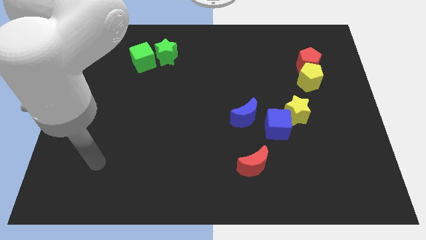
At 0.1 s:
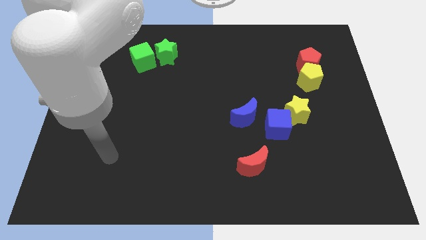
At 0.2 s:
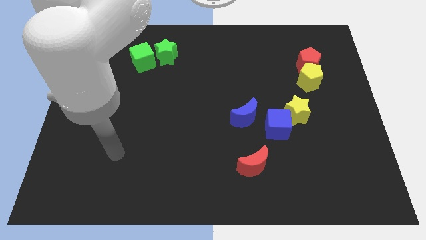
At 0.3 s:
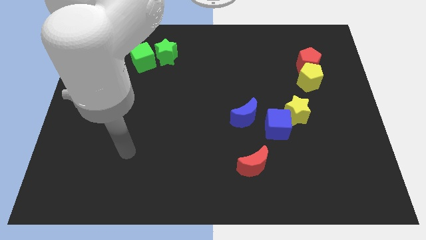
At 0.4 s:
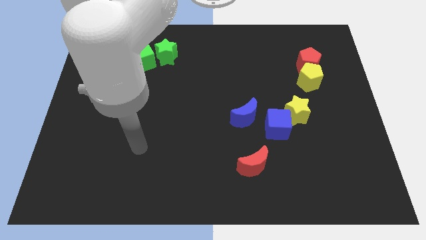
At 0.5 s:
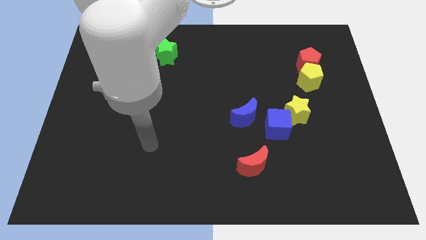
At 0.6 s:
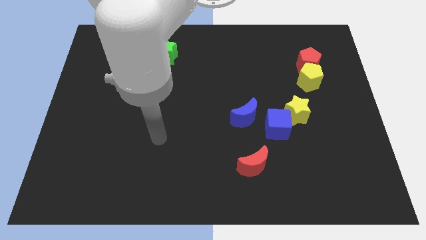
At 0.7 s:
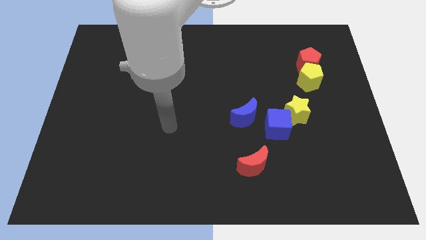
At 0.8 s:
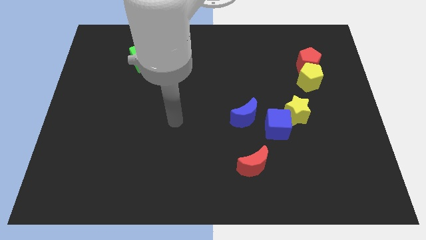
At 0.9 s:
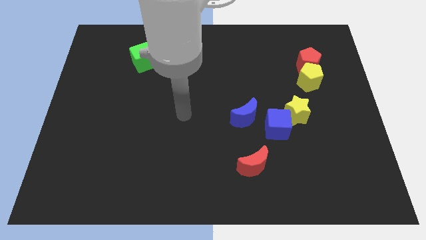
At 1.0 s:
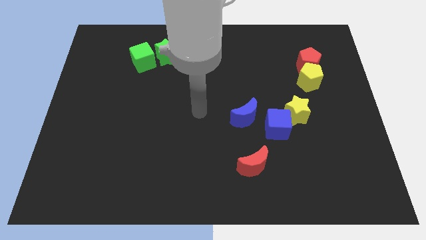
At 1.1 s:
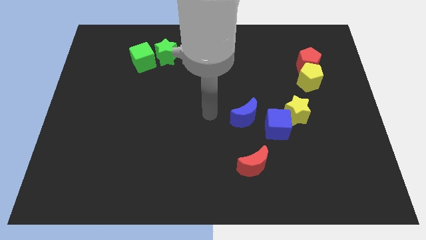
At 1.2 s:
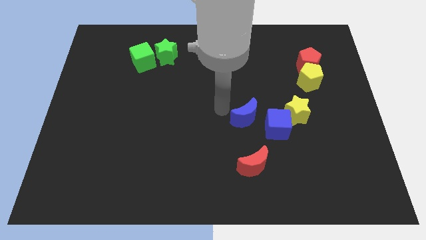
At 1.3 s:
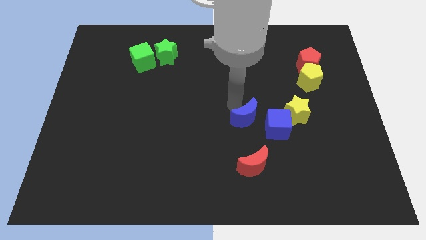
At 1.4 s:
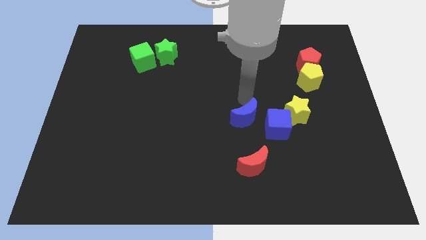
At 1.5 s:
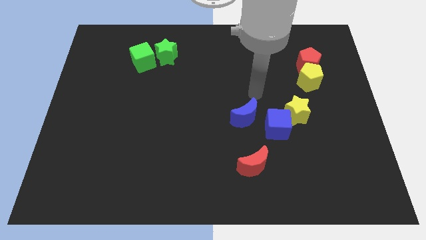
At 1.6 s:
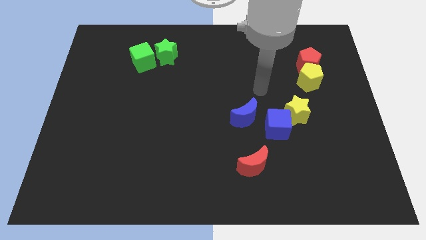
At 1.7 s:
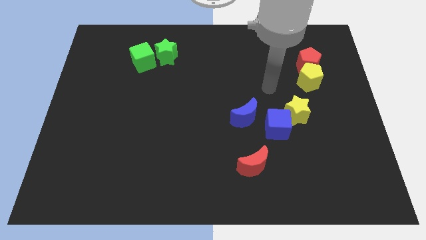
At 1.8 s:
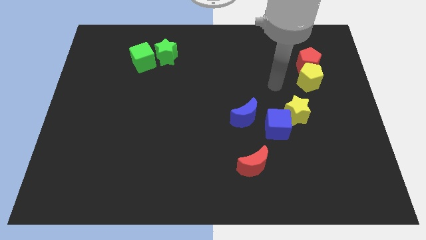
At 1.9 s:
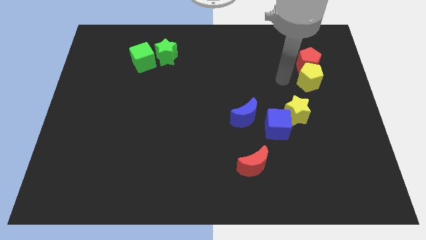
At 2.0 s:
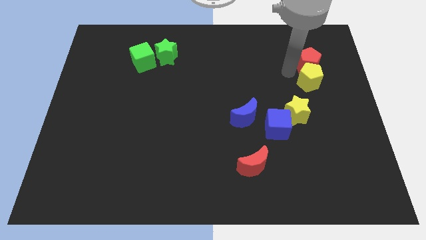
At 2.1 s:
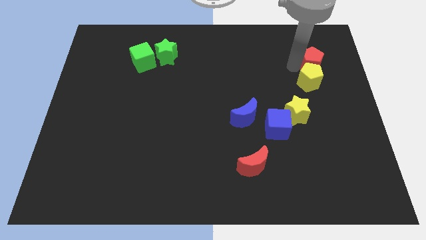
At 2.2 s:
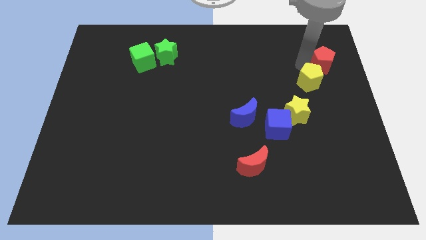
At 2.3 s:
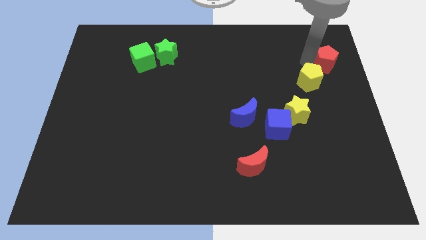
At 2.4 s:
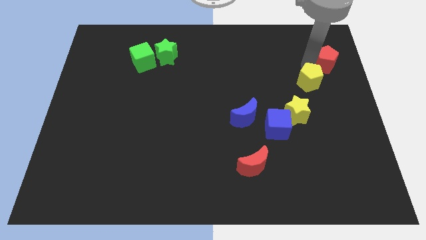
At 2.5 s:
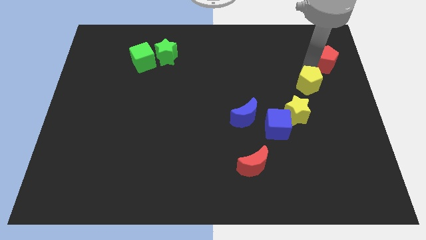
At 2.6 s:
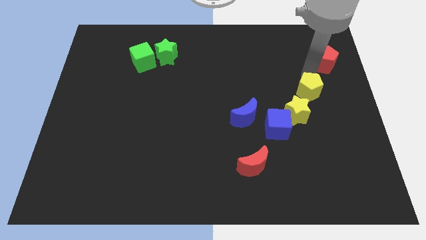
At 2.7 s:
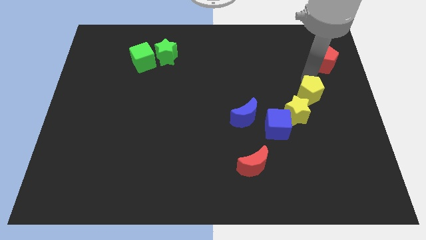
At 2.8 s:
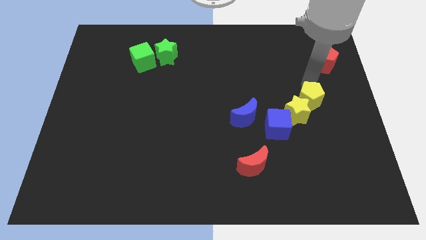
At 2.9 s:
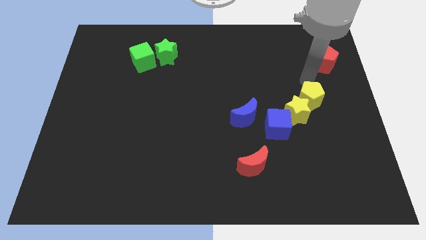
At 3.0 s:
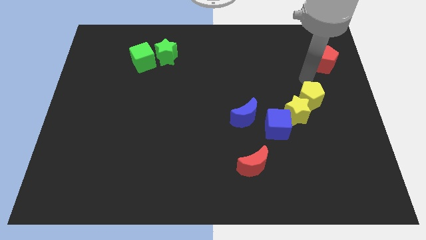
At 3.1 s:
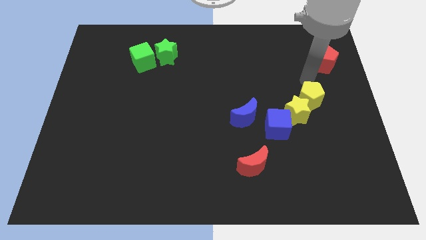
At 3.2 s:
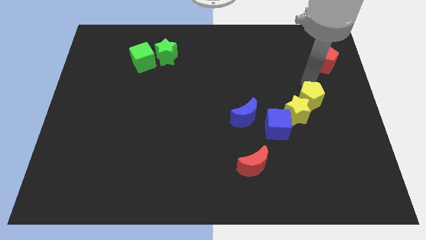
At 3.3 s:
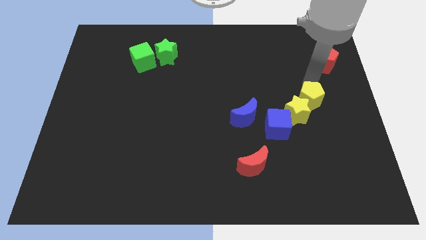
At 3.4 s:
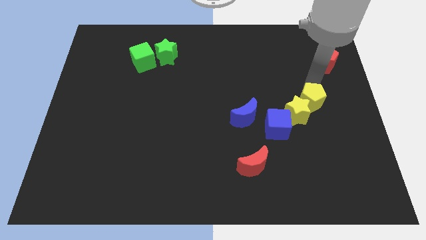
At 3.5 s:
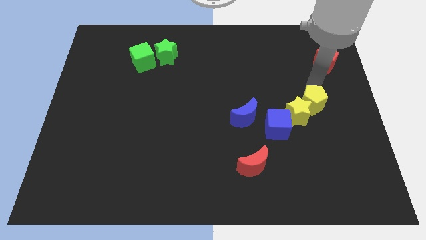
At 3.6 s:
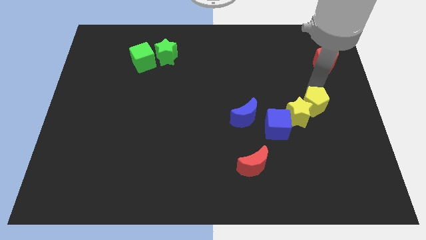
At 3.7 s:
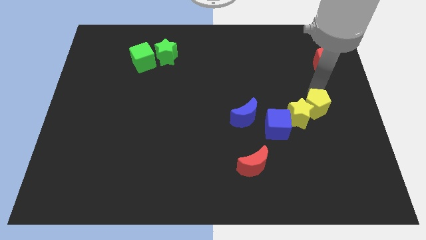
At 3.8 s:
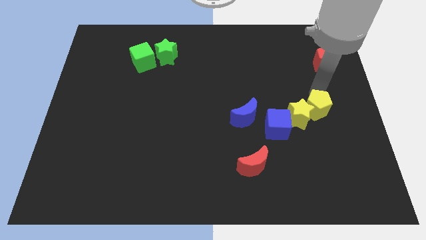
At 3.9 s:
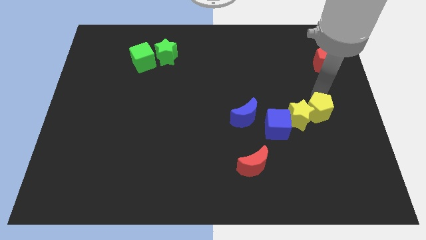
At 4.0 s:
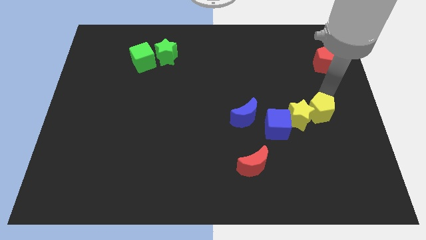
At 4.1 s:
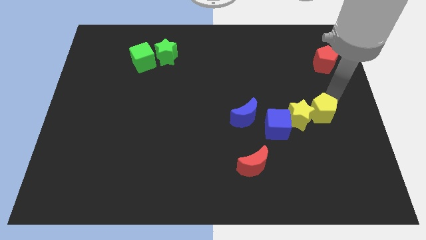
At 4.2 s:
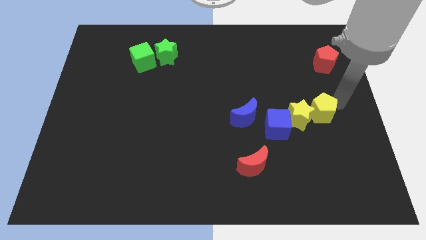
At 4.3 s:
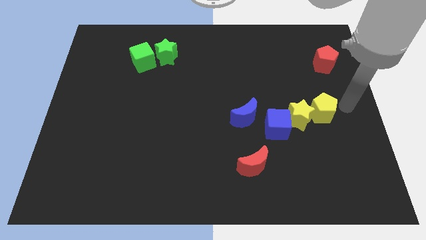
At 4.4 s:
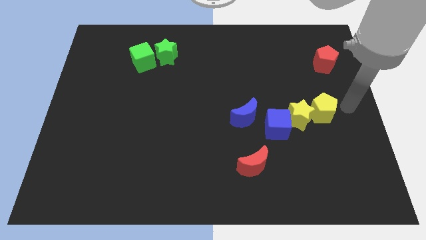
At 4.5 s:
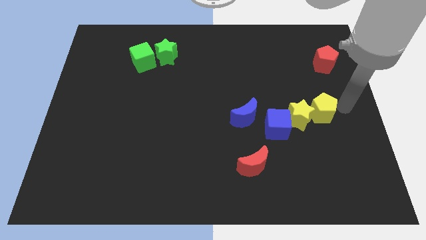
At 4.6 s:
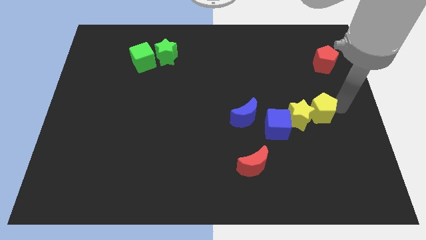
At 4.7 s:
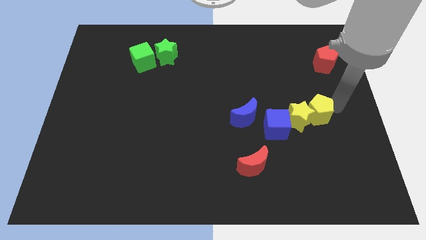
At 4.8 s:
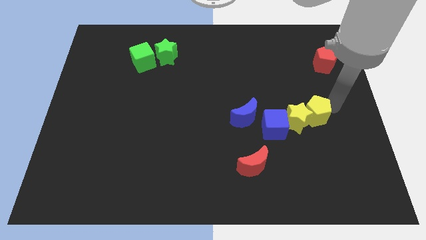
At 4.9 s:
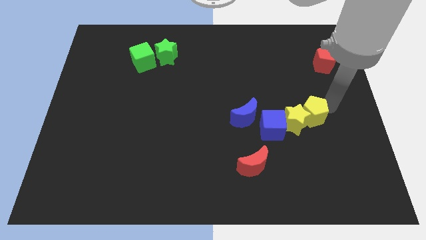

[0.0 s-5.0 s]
push the yellow pentagon right of the blue moon

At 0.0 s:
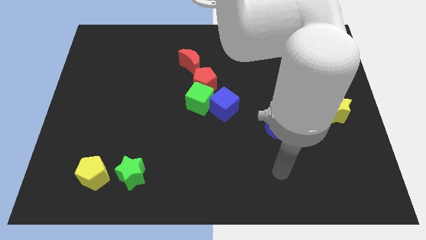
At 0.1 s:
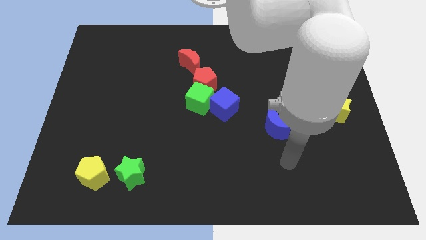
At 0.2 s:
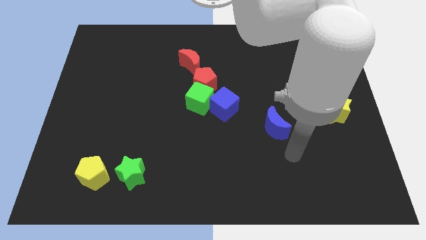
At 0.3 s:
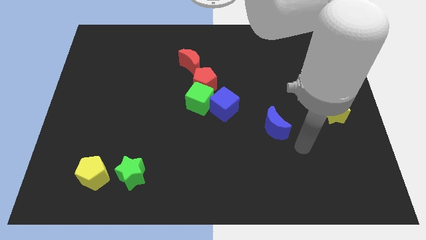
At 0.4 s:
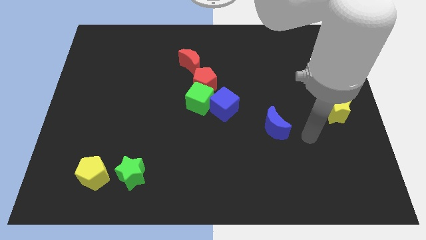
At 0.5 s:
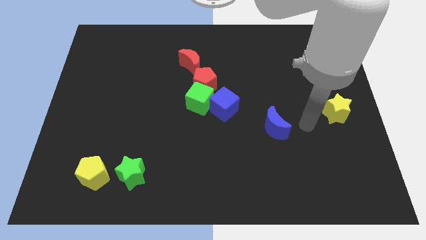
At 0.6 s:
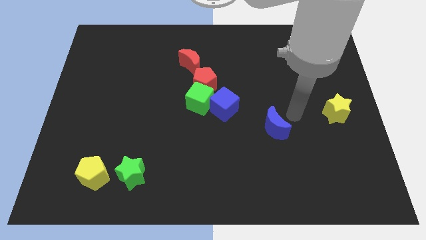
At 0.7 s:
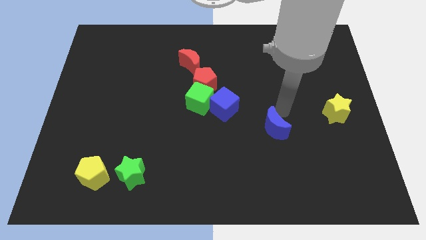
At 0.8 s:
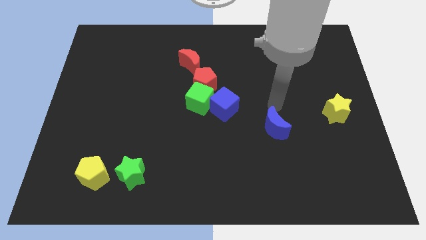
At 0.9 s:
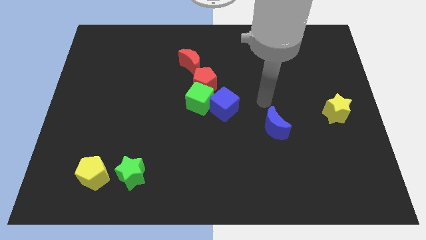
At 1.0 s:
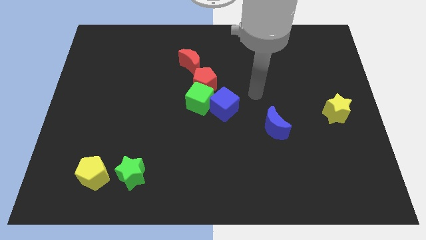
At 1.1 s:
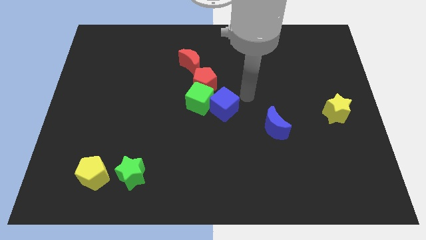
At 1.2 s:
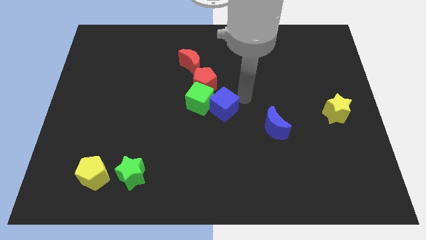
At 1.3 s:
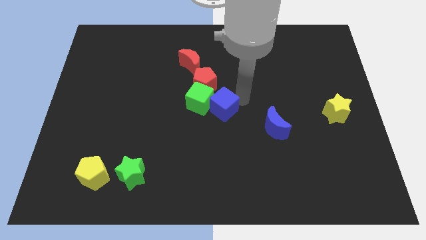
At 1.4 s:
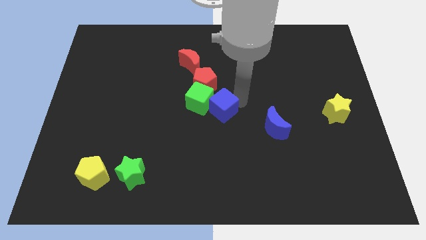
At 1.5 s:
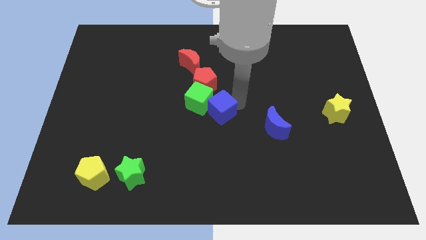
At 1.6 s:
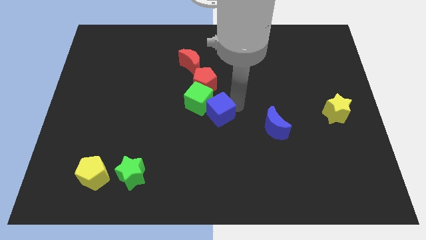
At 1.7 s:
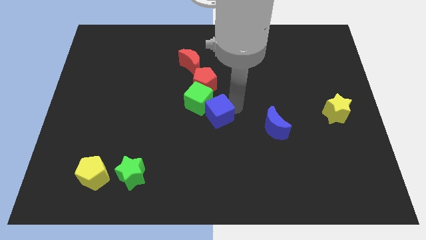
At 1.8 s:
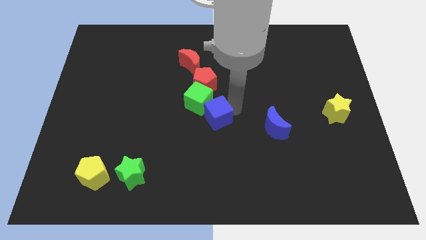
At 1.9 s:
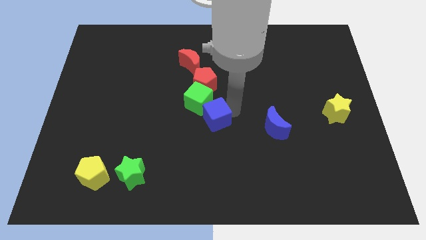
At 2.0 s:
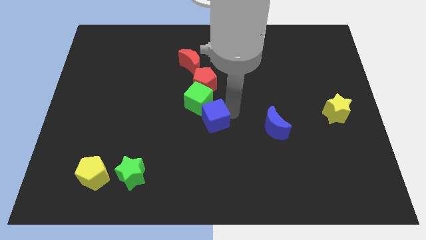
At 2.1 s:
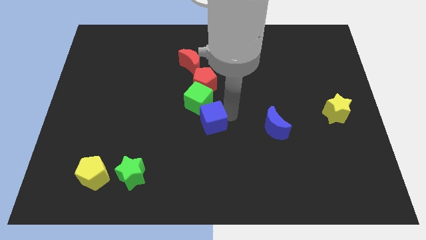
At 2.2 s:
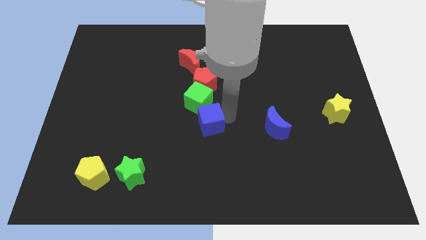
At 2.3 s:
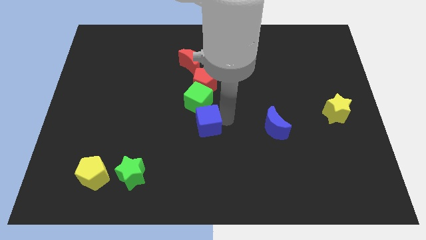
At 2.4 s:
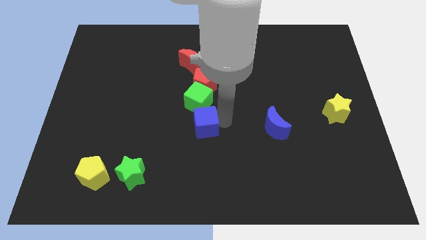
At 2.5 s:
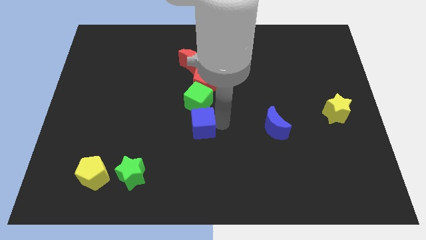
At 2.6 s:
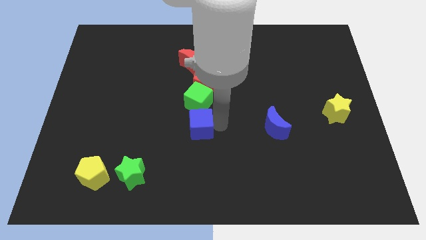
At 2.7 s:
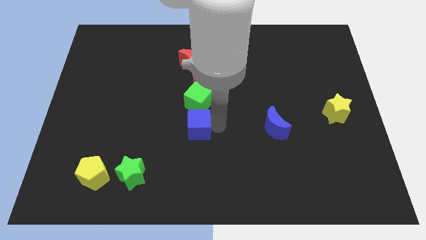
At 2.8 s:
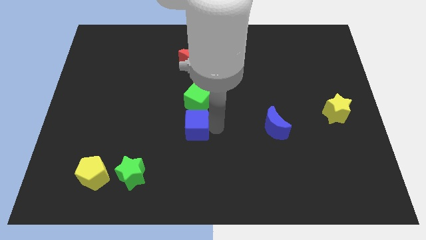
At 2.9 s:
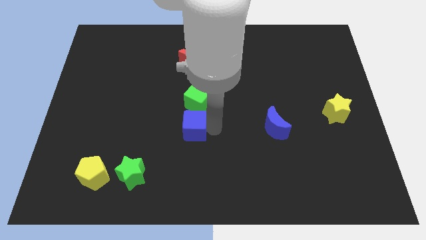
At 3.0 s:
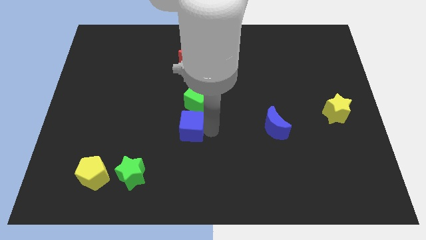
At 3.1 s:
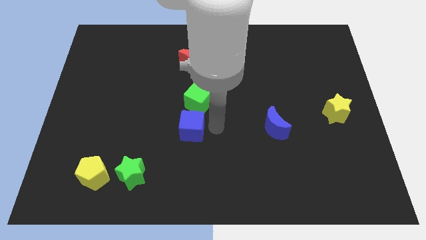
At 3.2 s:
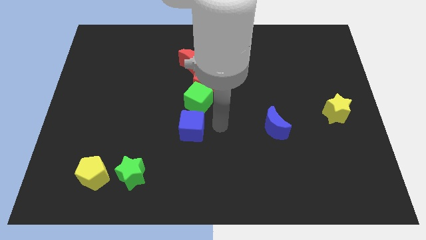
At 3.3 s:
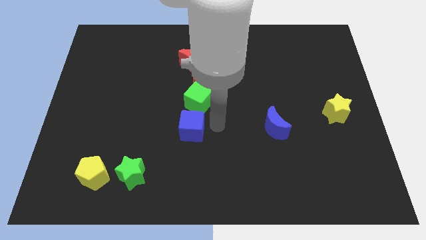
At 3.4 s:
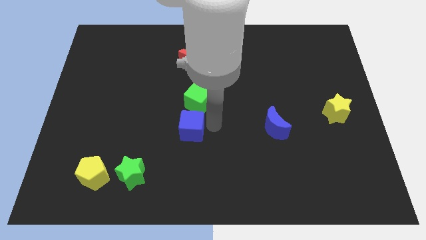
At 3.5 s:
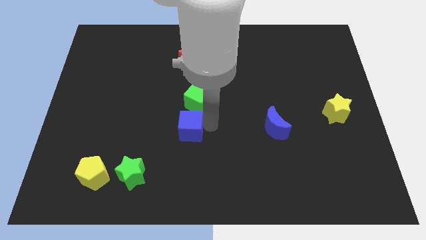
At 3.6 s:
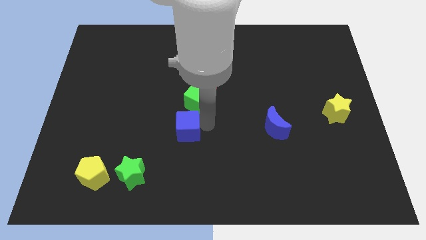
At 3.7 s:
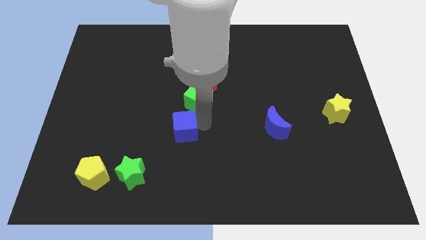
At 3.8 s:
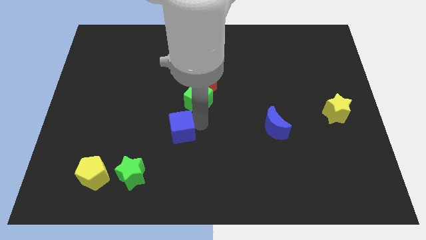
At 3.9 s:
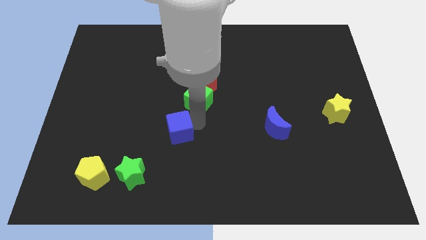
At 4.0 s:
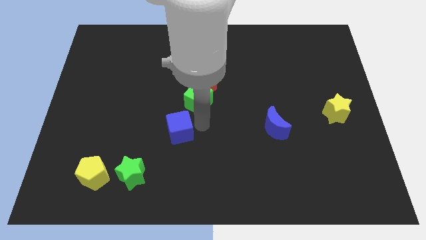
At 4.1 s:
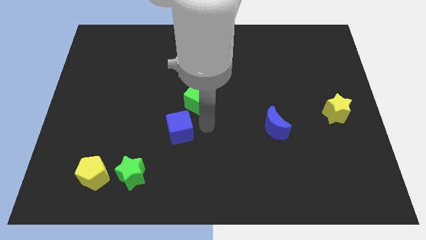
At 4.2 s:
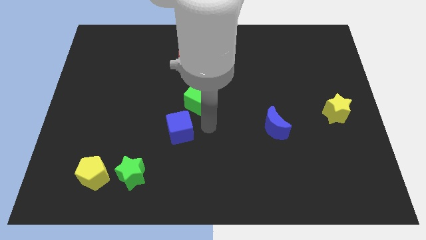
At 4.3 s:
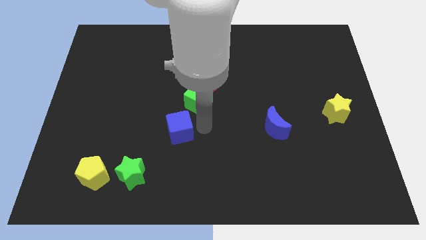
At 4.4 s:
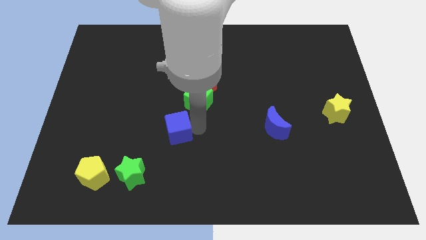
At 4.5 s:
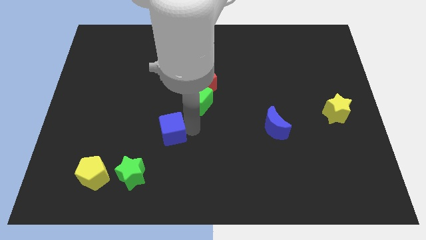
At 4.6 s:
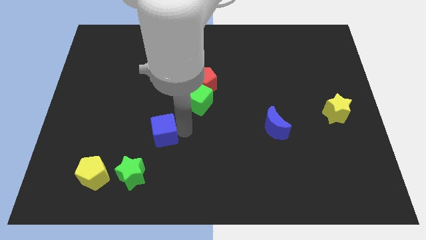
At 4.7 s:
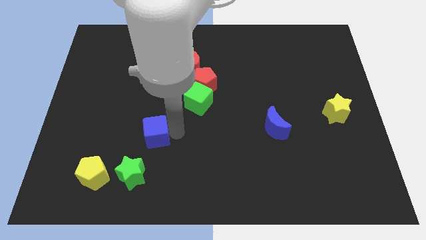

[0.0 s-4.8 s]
push the blue cube above the green star
